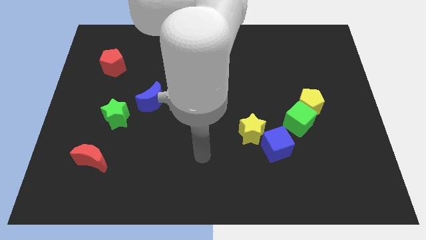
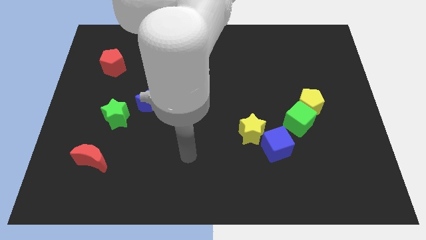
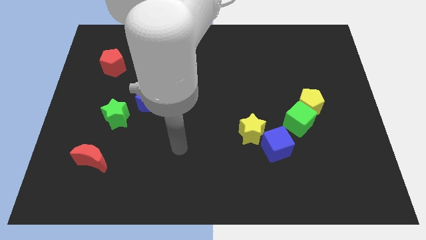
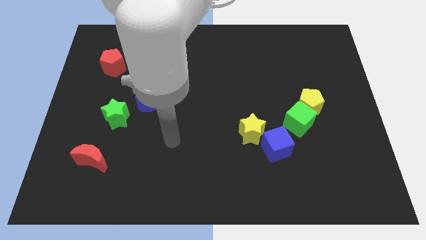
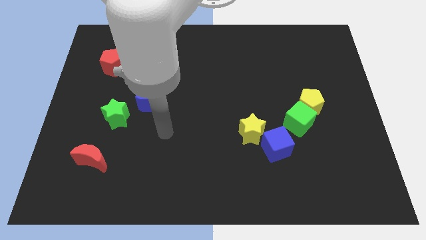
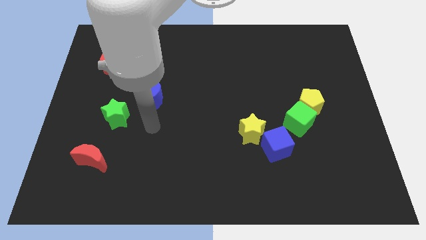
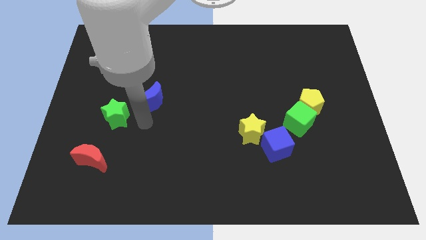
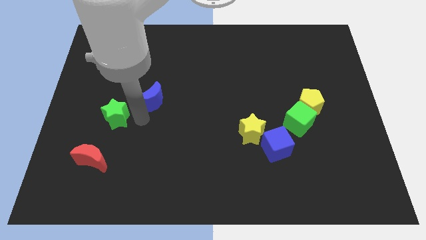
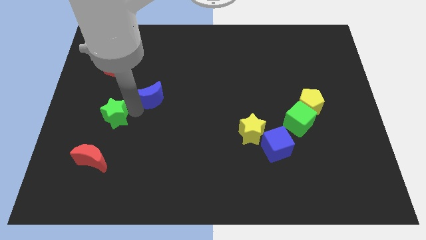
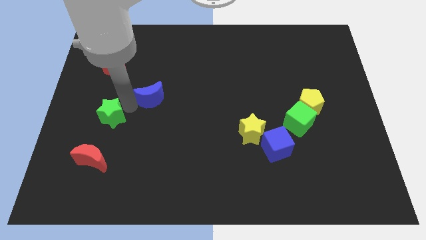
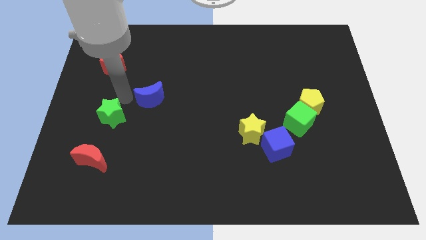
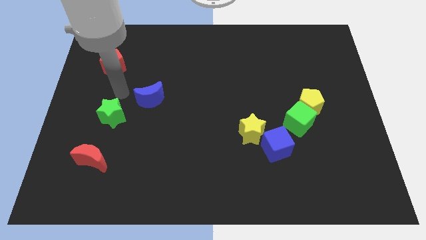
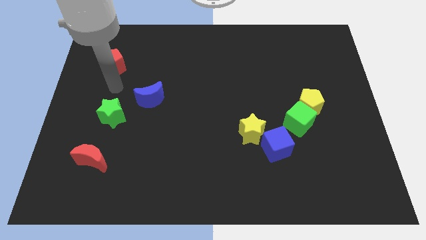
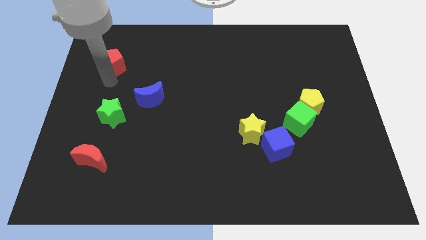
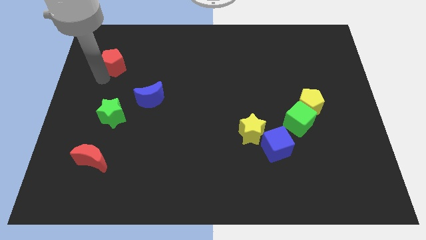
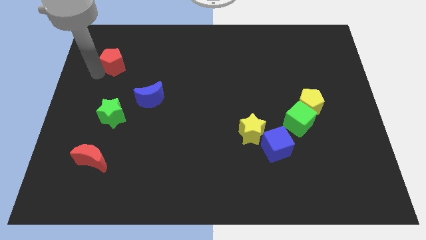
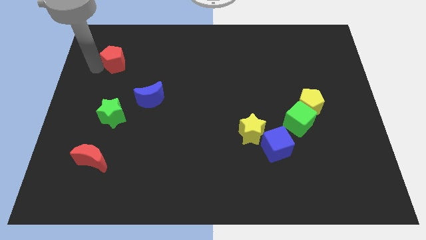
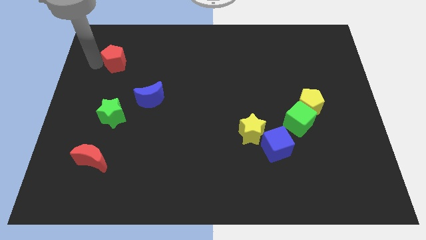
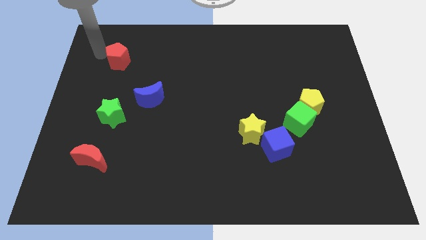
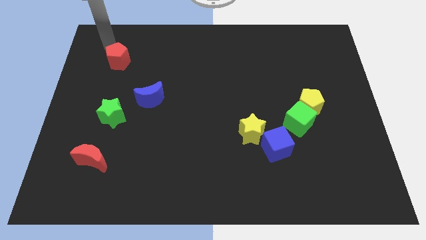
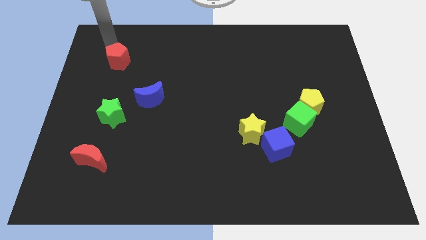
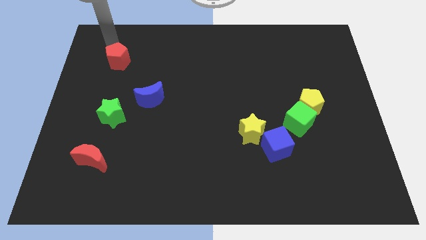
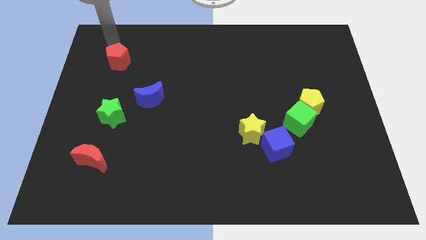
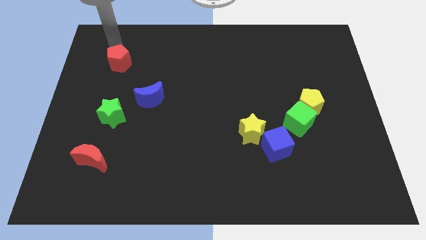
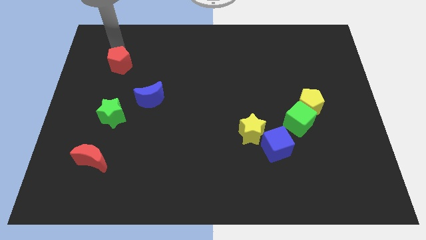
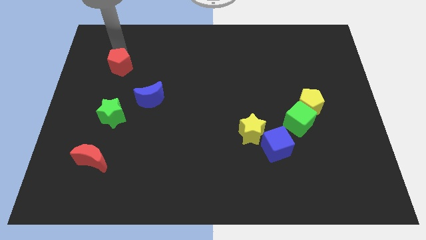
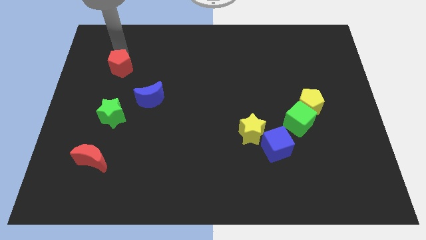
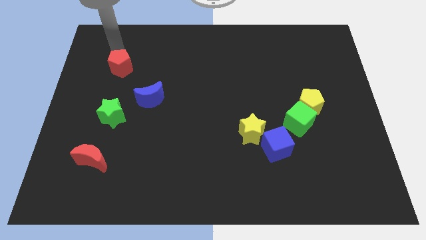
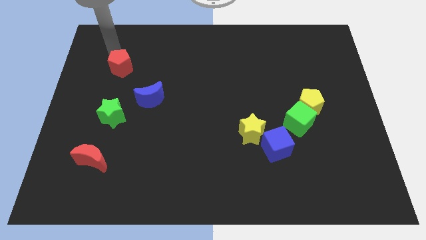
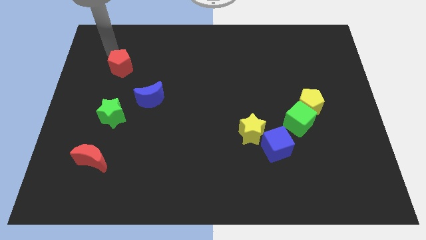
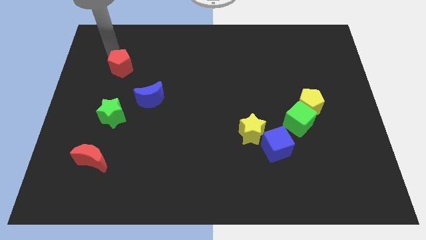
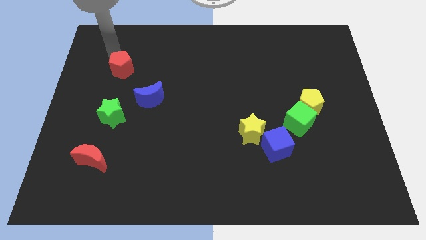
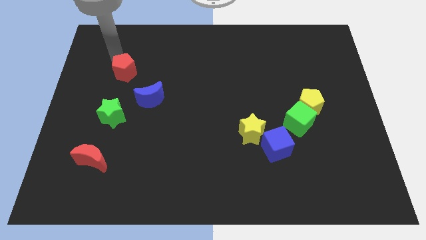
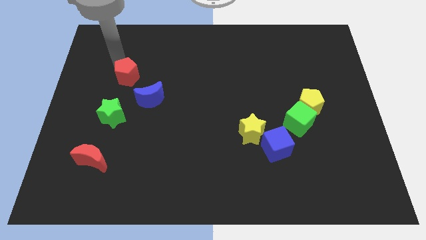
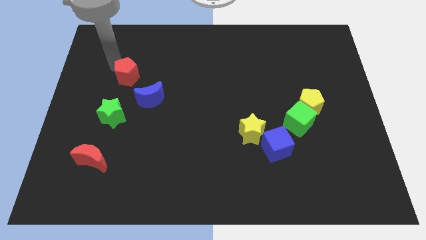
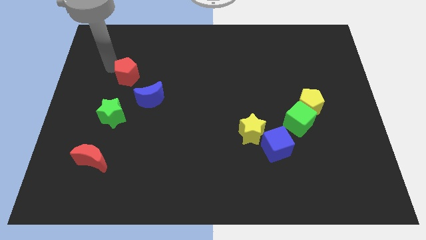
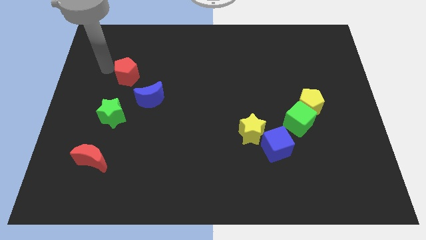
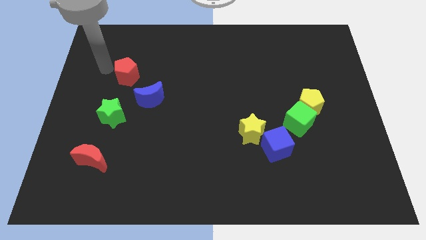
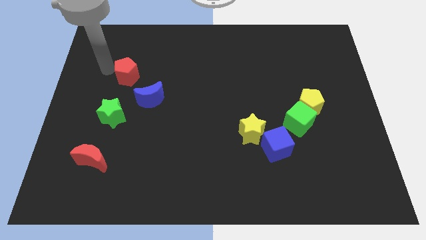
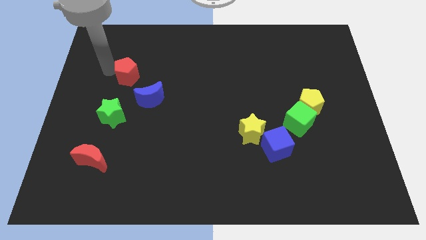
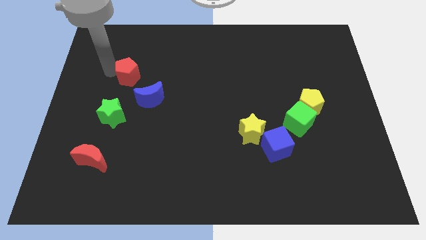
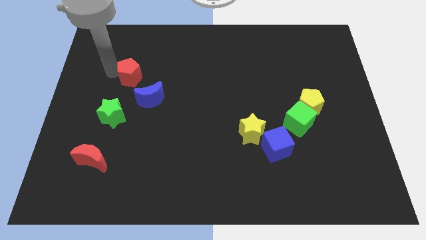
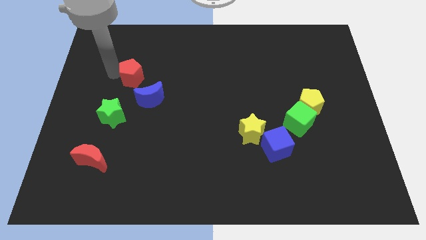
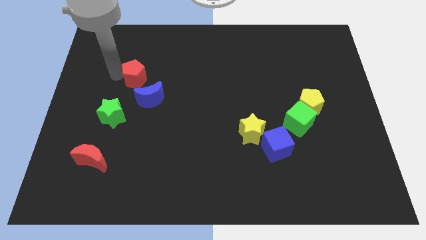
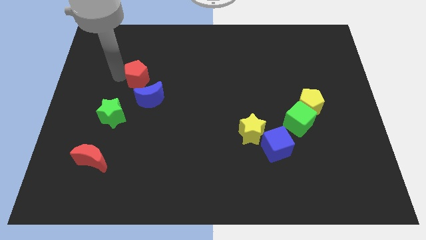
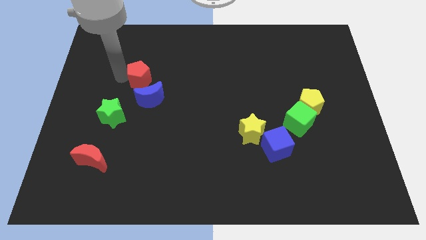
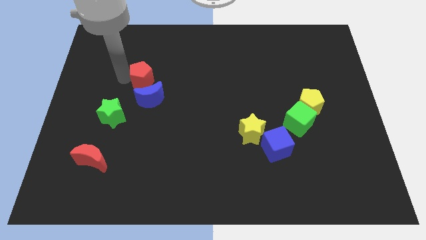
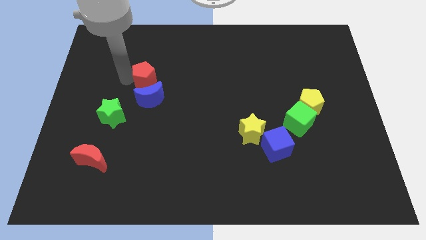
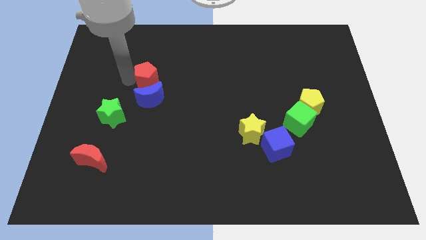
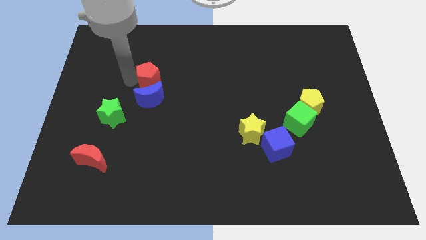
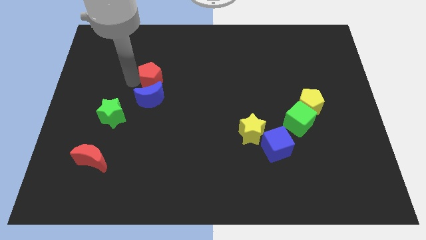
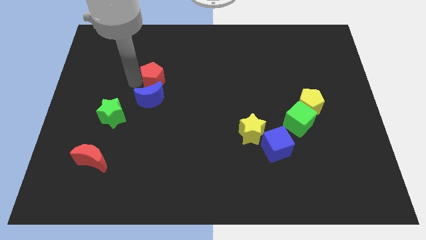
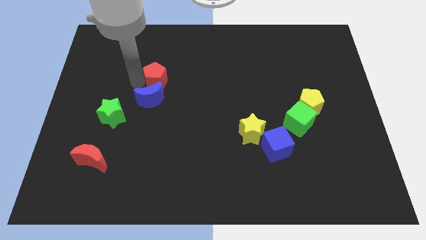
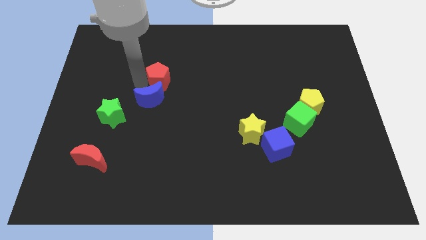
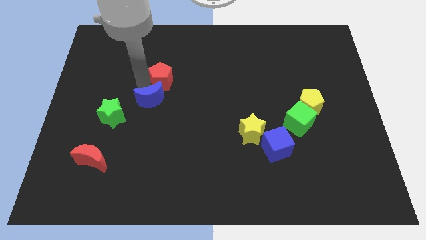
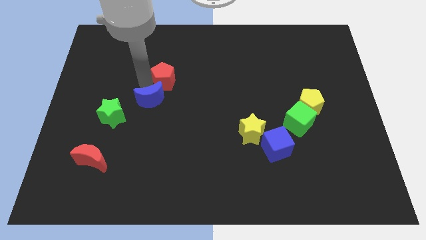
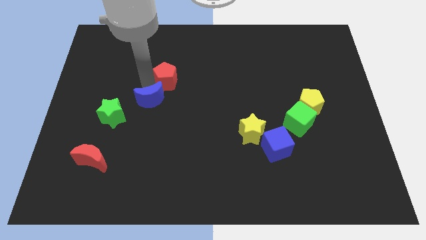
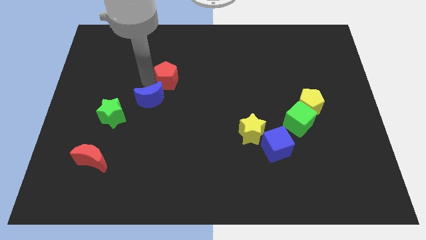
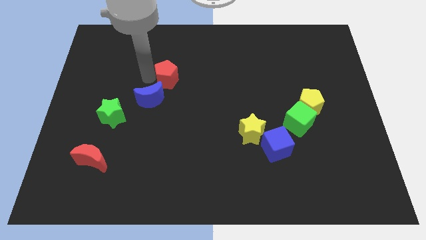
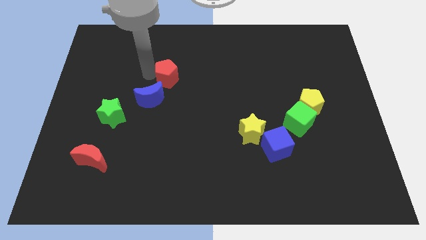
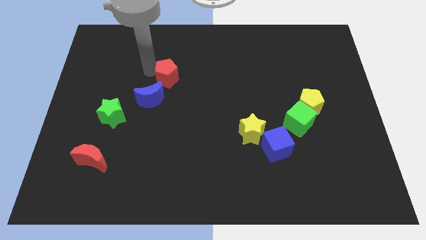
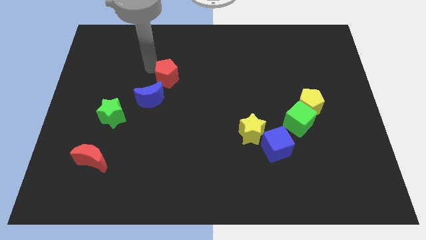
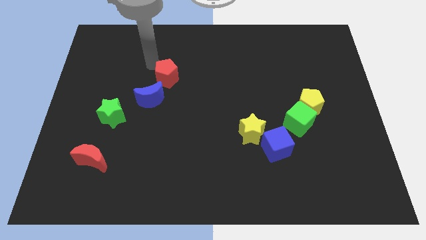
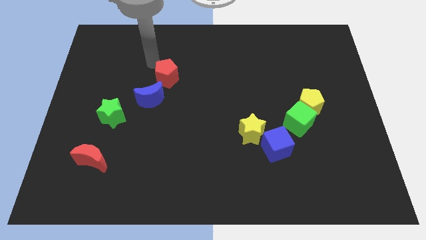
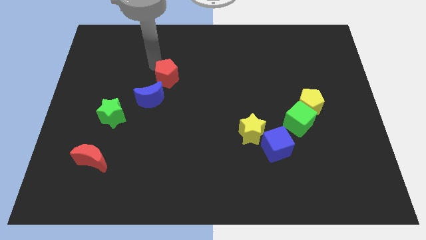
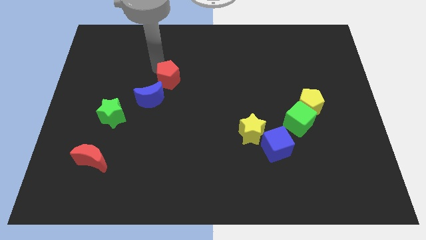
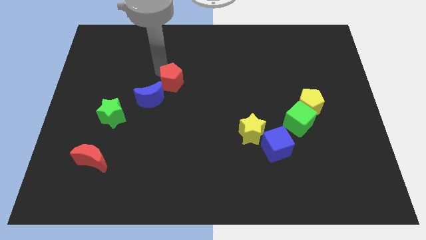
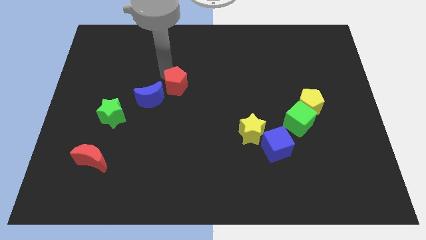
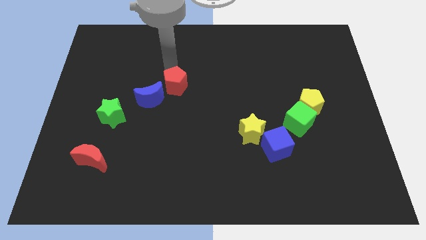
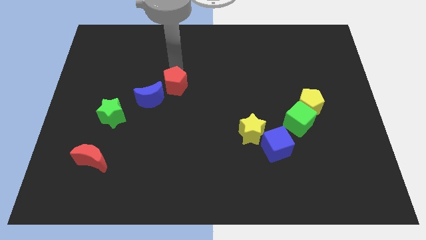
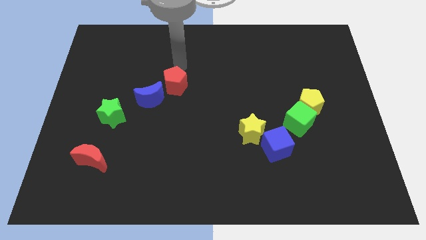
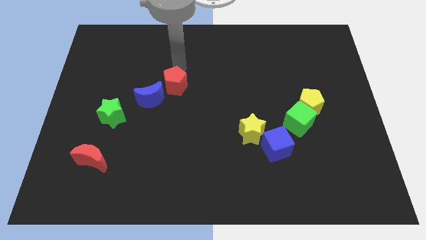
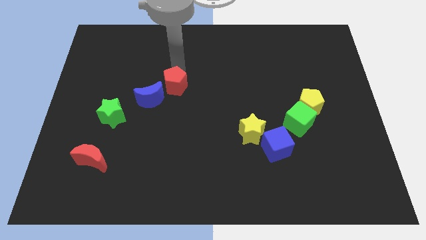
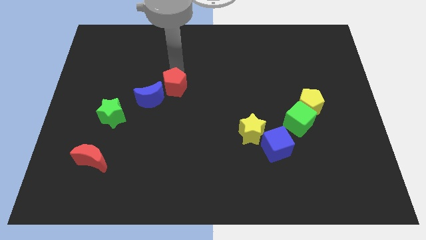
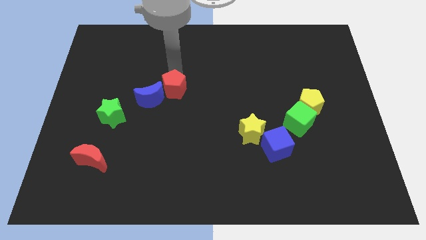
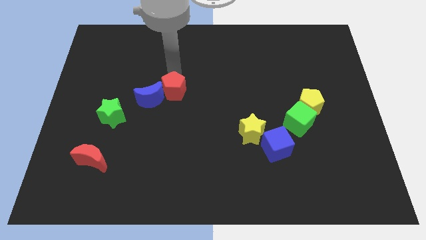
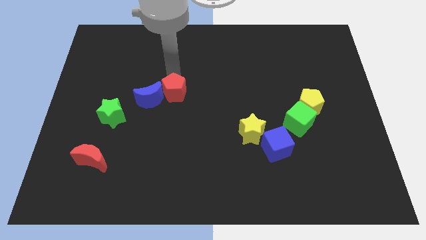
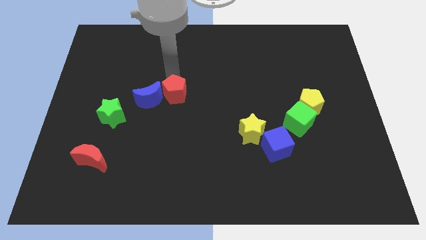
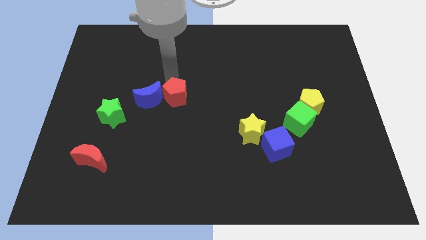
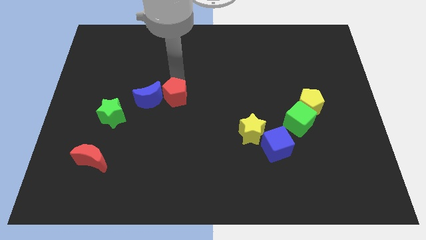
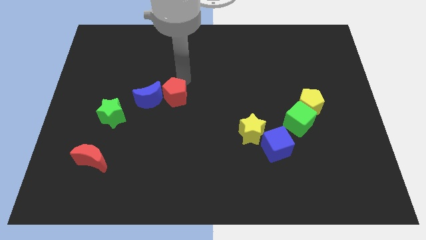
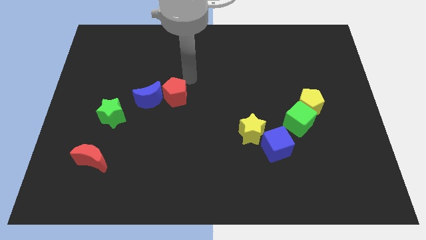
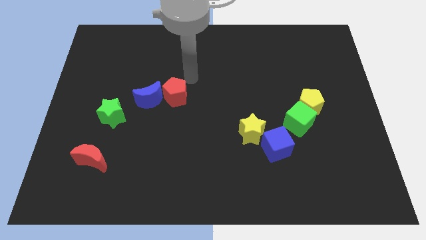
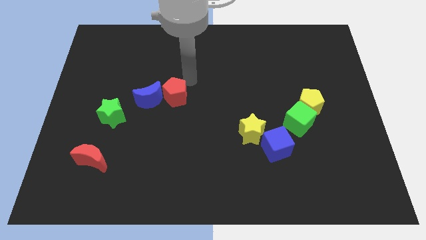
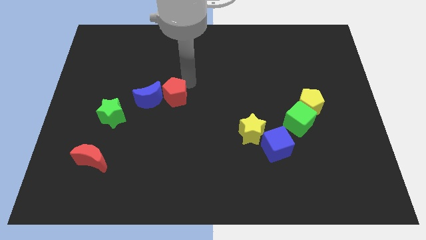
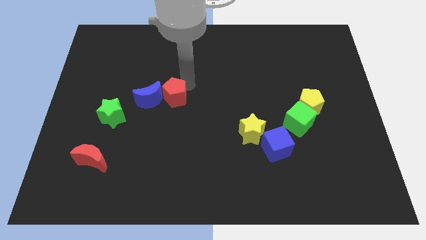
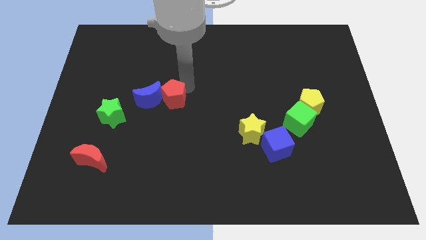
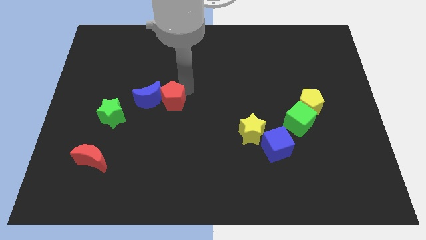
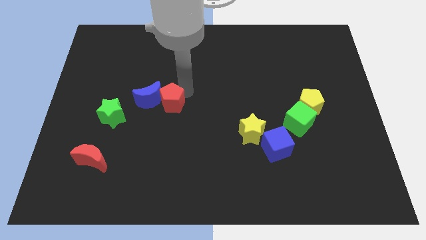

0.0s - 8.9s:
move the red pentagon just right of the green star
